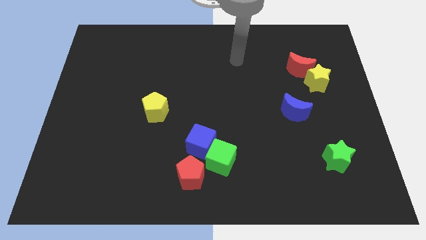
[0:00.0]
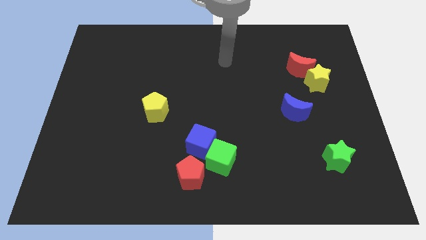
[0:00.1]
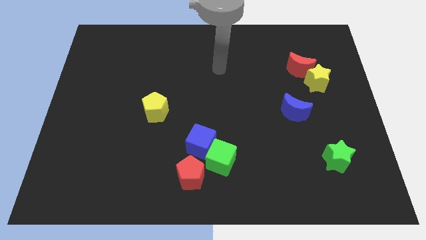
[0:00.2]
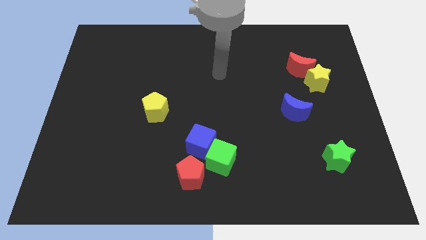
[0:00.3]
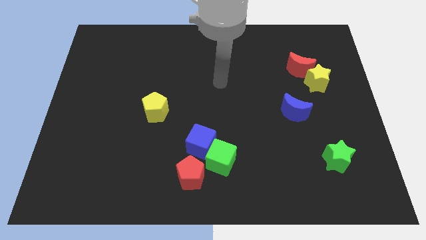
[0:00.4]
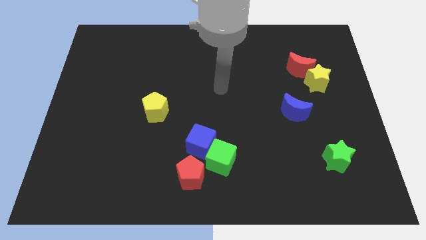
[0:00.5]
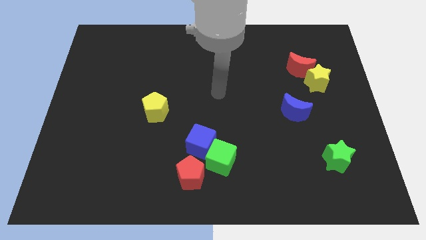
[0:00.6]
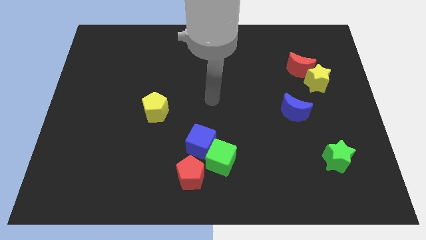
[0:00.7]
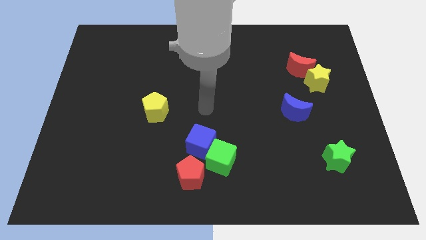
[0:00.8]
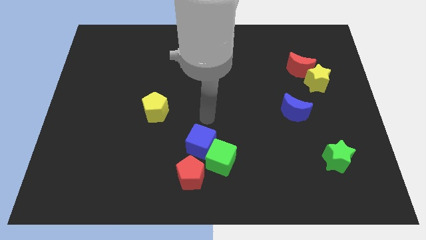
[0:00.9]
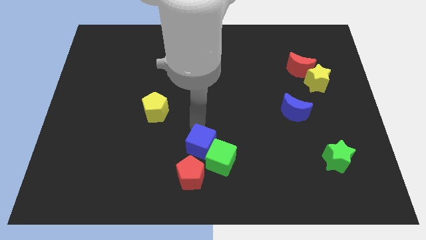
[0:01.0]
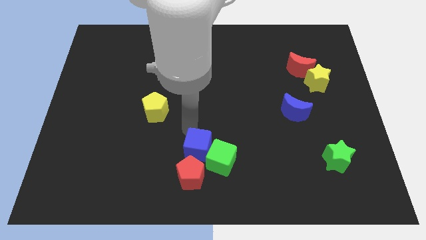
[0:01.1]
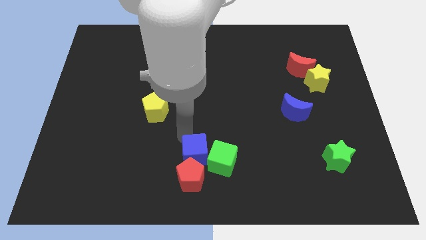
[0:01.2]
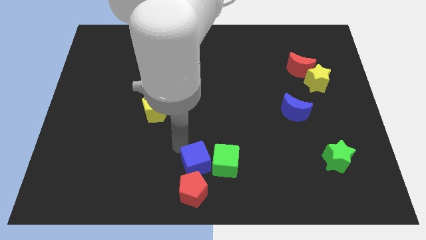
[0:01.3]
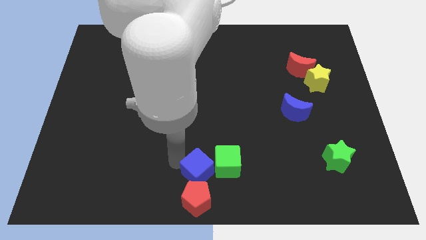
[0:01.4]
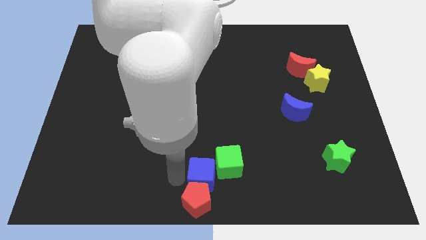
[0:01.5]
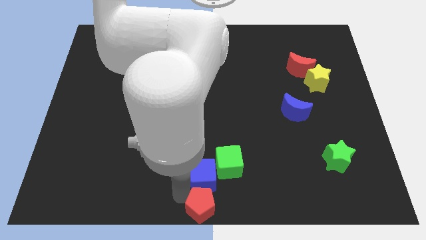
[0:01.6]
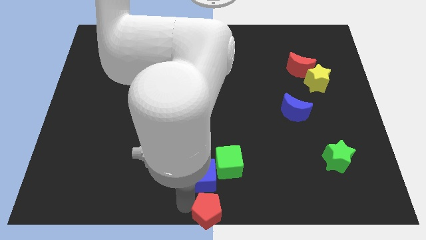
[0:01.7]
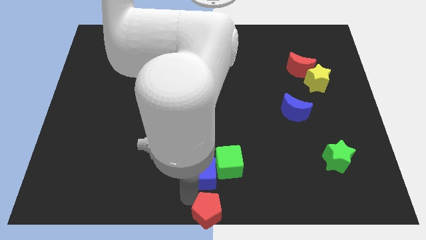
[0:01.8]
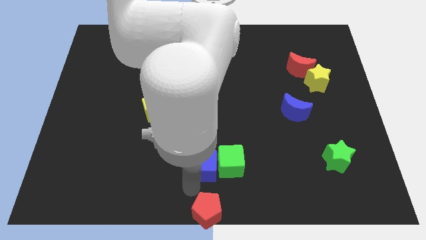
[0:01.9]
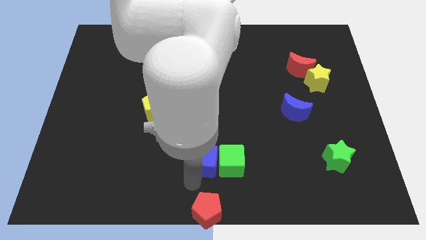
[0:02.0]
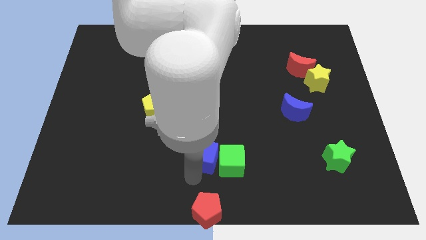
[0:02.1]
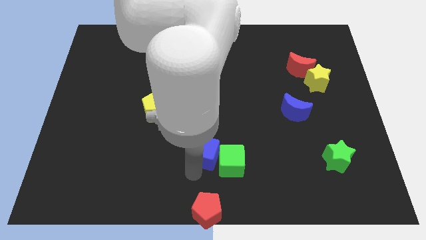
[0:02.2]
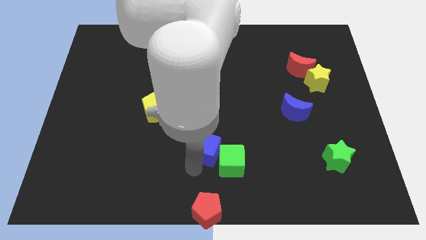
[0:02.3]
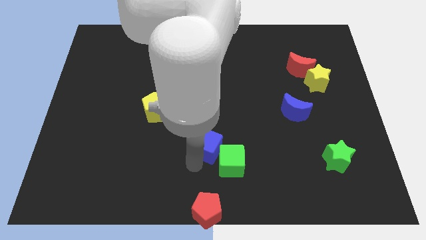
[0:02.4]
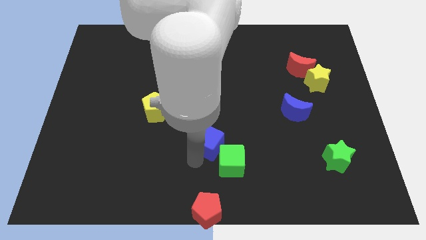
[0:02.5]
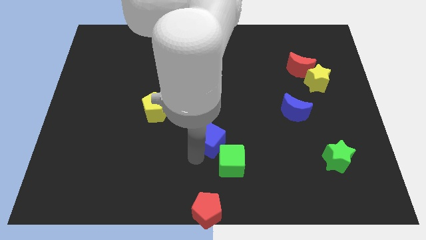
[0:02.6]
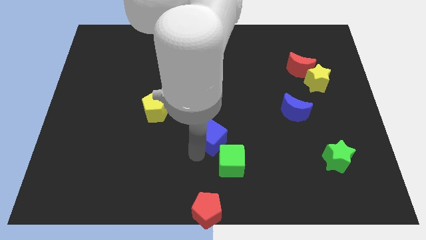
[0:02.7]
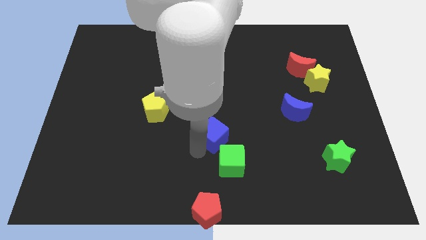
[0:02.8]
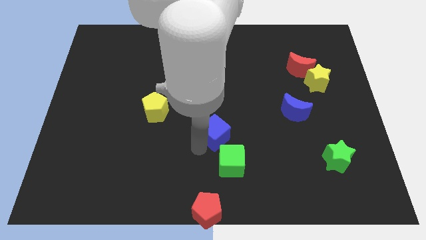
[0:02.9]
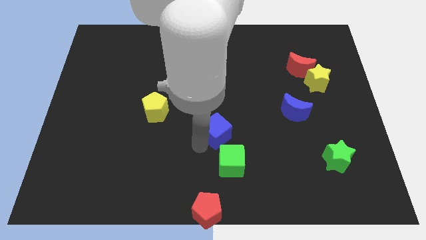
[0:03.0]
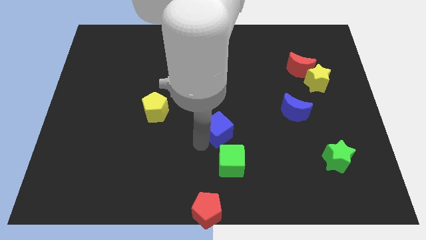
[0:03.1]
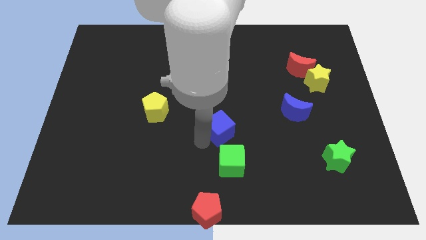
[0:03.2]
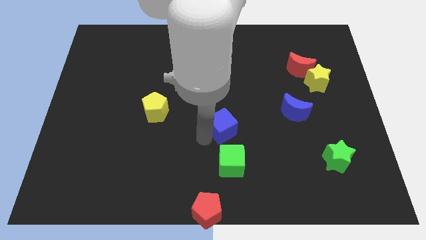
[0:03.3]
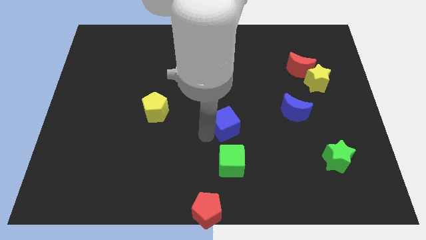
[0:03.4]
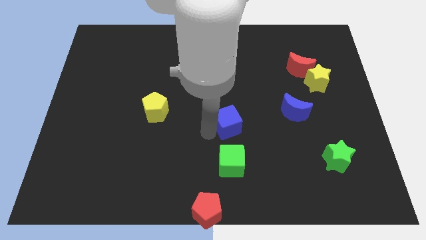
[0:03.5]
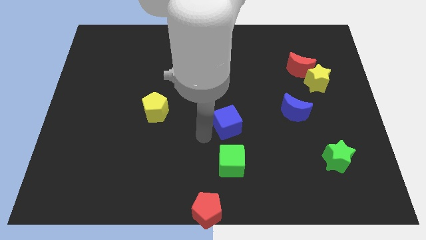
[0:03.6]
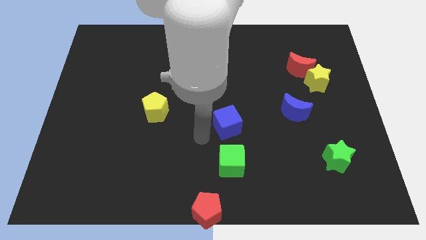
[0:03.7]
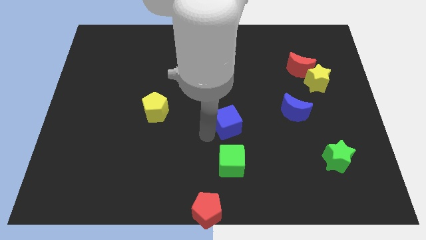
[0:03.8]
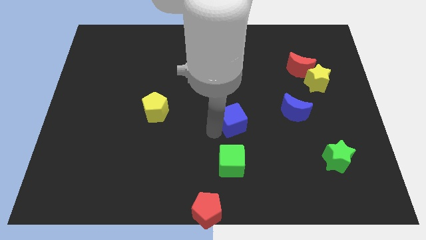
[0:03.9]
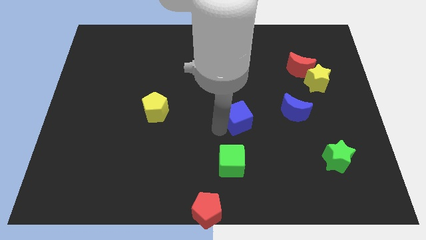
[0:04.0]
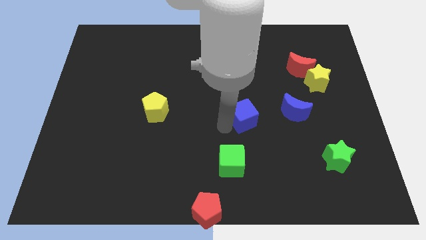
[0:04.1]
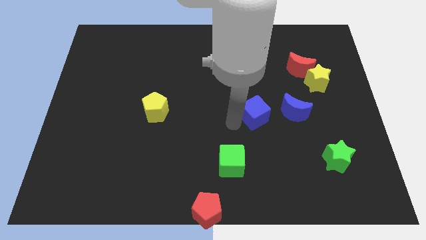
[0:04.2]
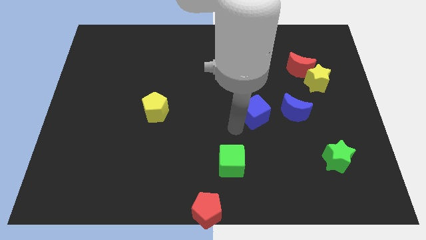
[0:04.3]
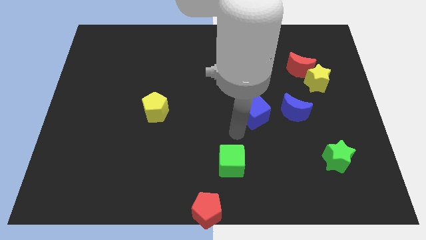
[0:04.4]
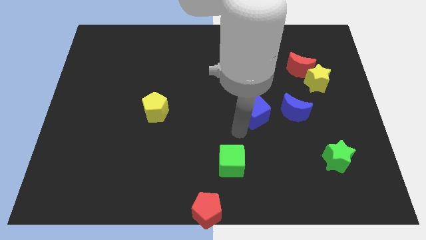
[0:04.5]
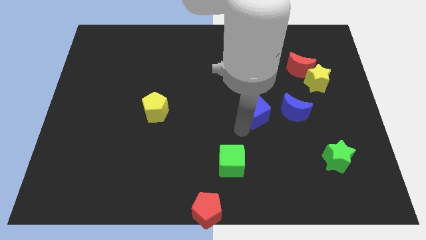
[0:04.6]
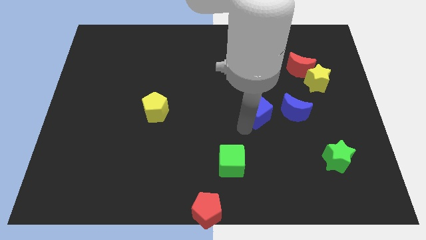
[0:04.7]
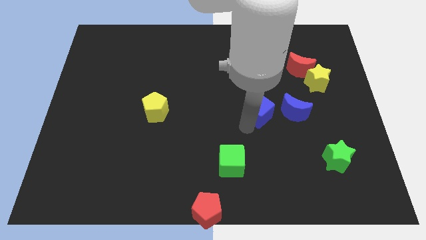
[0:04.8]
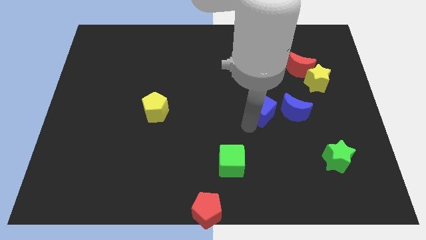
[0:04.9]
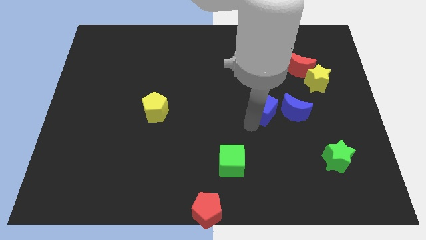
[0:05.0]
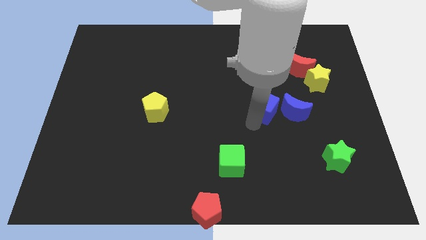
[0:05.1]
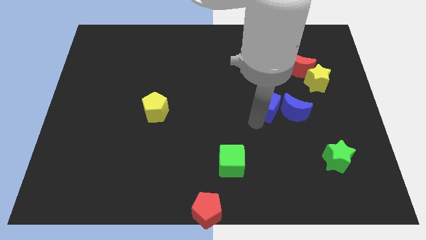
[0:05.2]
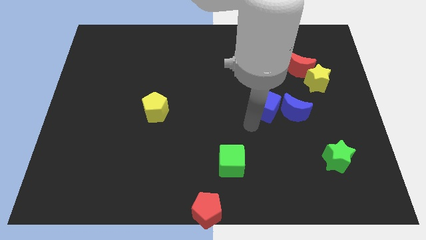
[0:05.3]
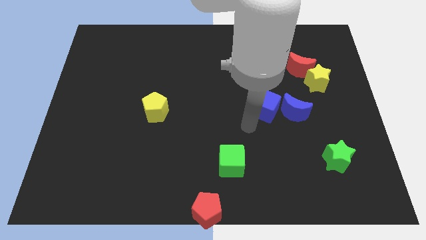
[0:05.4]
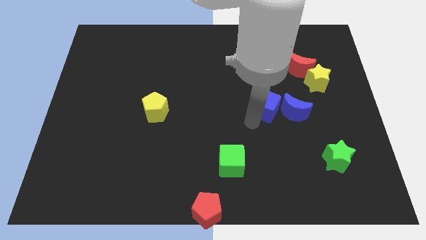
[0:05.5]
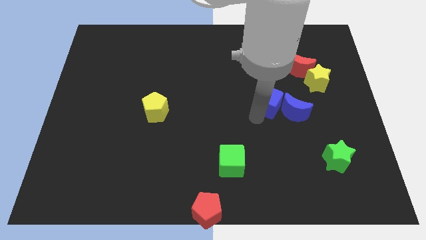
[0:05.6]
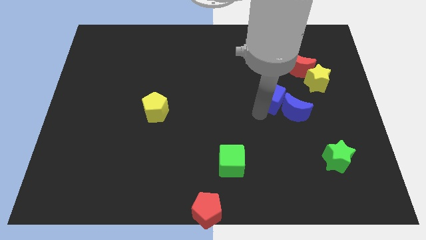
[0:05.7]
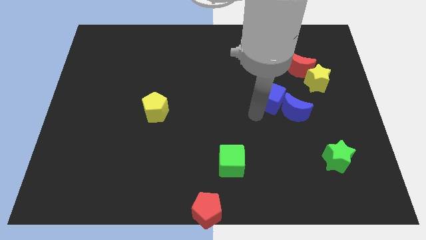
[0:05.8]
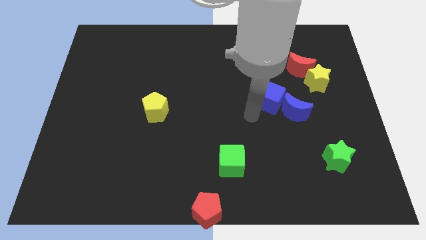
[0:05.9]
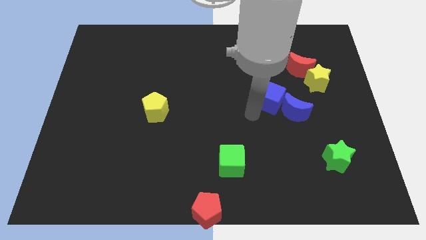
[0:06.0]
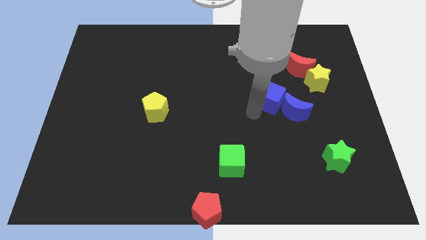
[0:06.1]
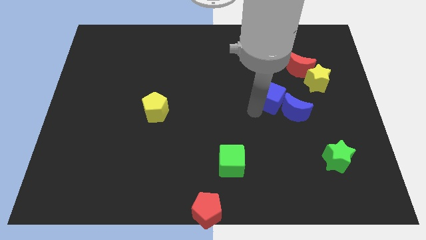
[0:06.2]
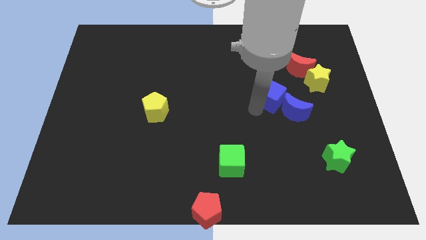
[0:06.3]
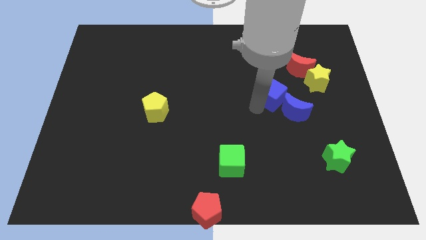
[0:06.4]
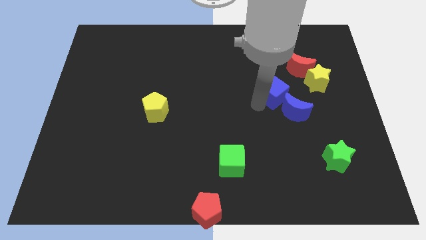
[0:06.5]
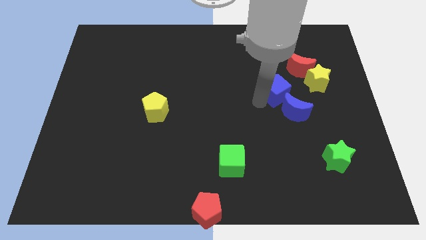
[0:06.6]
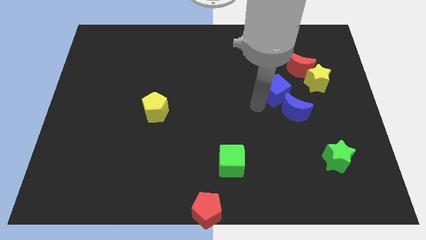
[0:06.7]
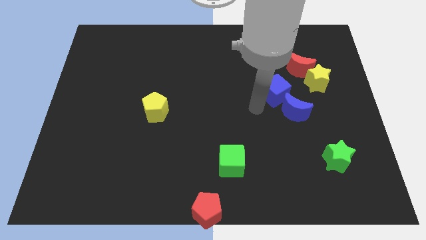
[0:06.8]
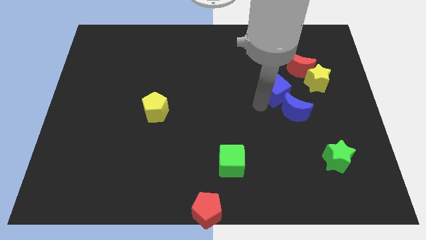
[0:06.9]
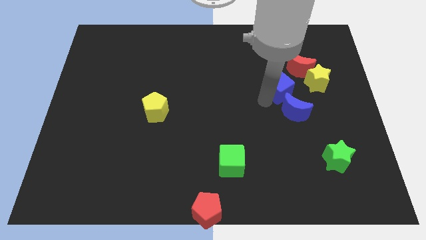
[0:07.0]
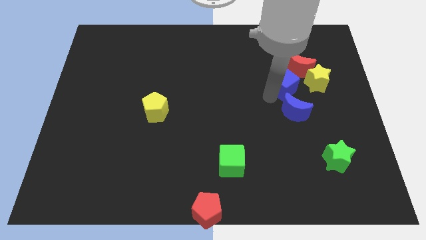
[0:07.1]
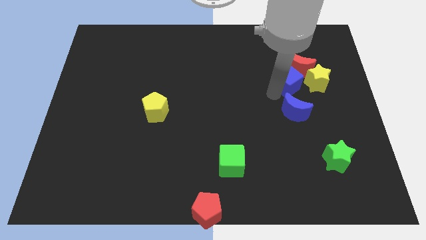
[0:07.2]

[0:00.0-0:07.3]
put the blue cube close to the red moon
